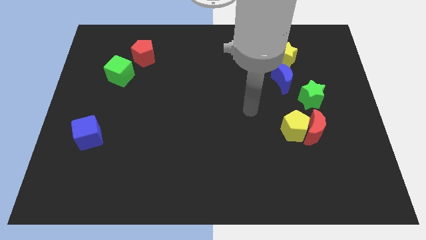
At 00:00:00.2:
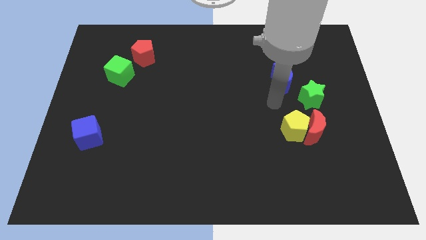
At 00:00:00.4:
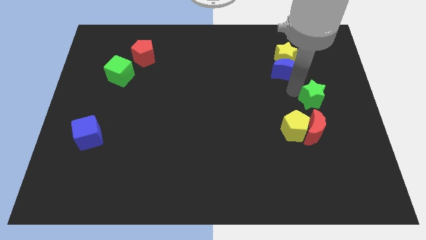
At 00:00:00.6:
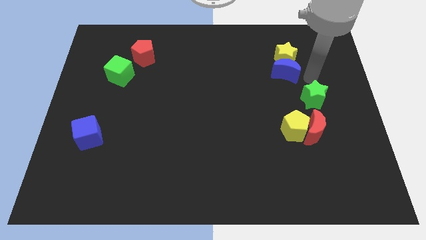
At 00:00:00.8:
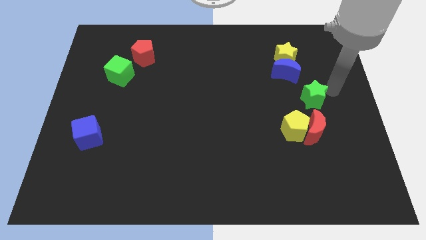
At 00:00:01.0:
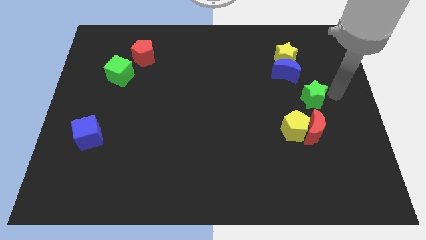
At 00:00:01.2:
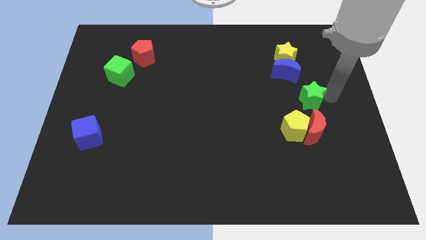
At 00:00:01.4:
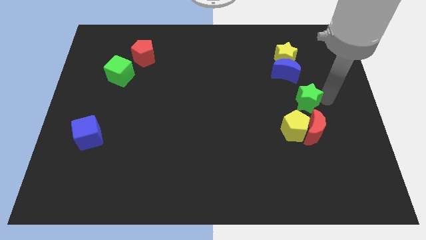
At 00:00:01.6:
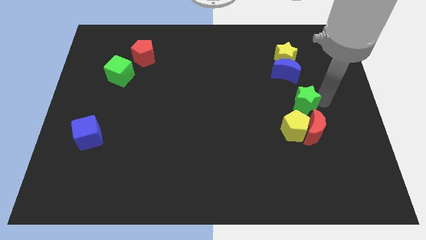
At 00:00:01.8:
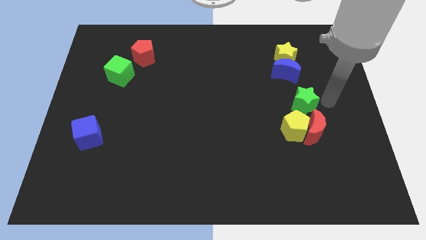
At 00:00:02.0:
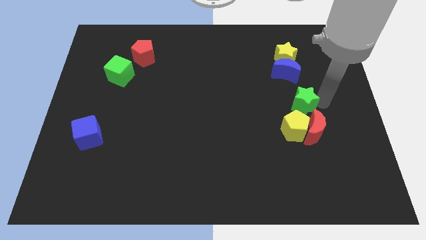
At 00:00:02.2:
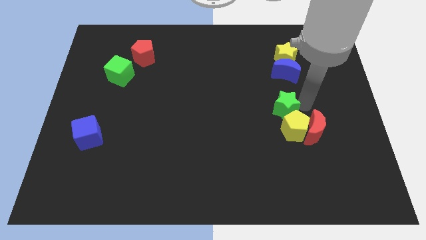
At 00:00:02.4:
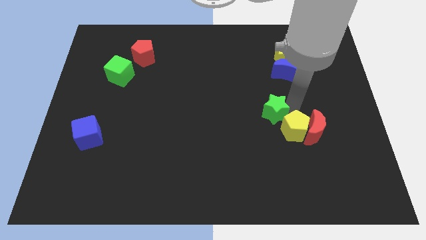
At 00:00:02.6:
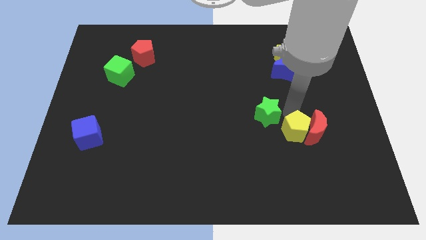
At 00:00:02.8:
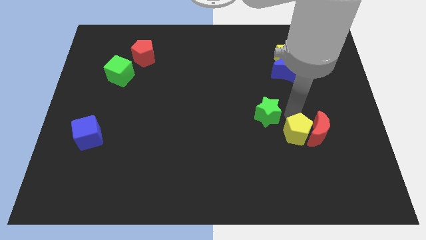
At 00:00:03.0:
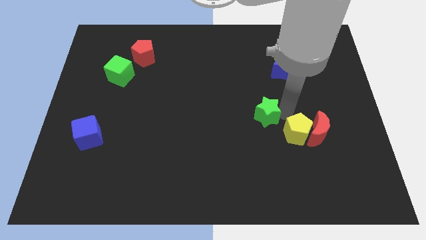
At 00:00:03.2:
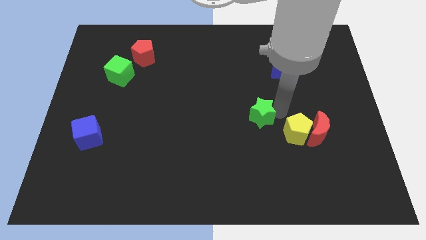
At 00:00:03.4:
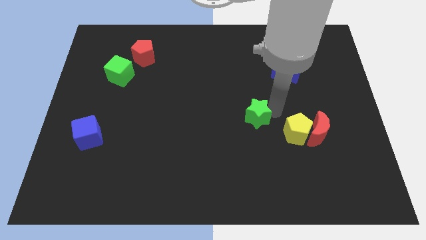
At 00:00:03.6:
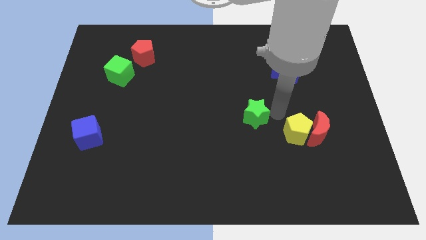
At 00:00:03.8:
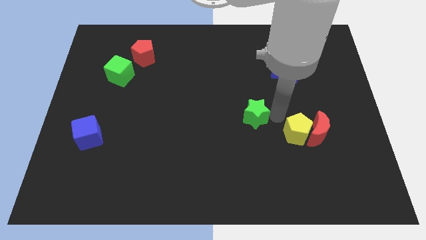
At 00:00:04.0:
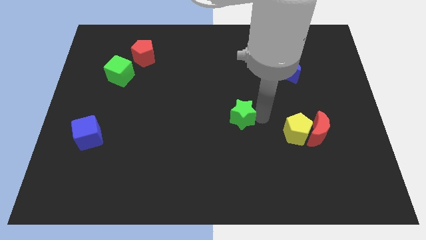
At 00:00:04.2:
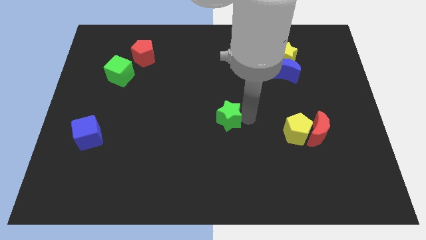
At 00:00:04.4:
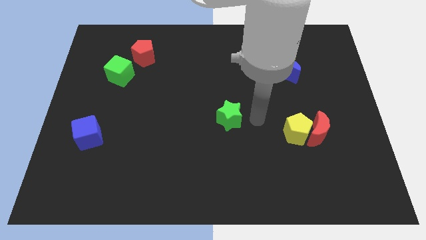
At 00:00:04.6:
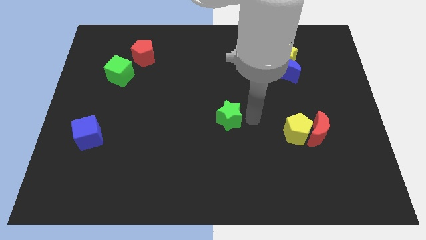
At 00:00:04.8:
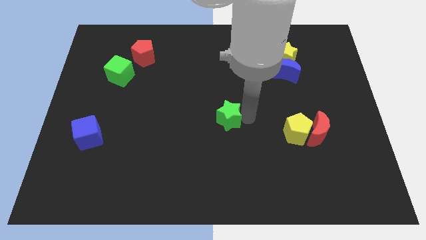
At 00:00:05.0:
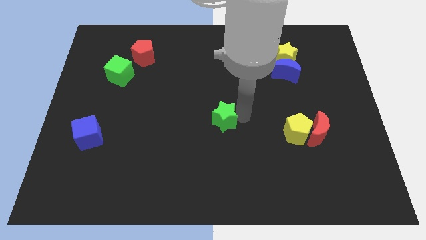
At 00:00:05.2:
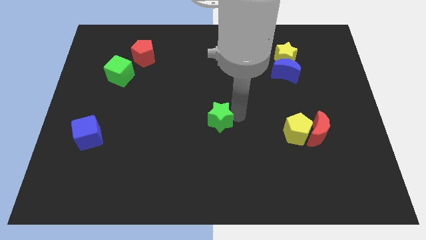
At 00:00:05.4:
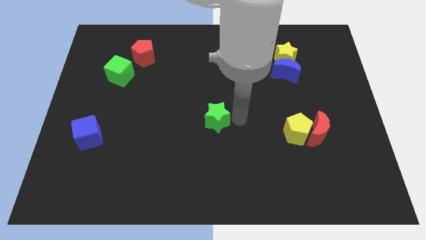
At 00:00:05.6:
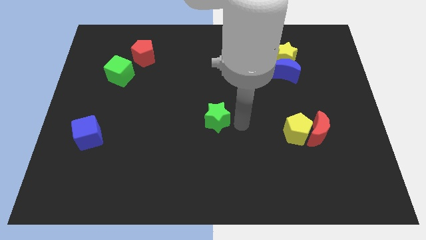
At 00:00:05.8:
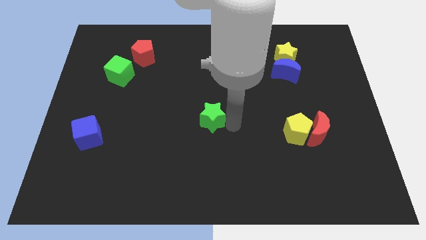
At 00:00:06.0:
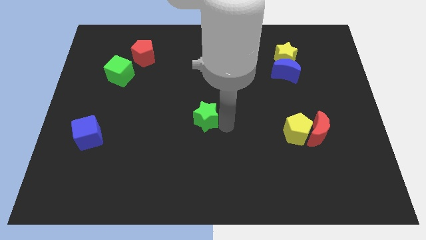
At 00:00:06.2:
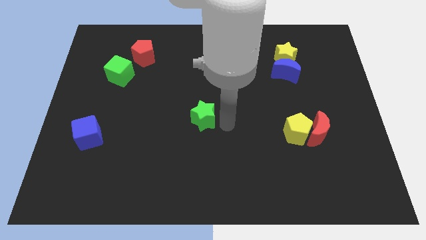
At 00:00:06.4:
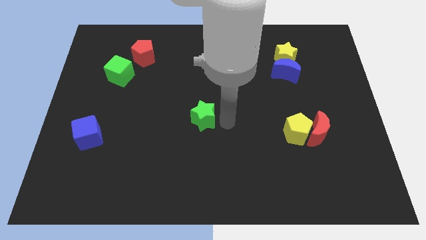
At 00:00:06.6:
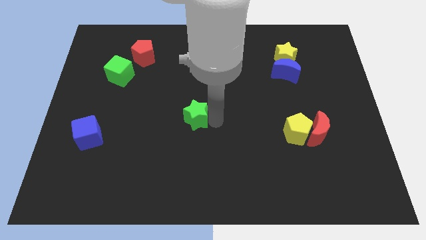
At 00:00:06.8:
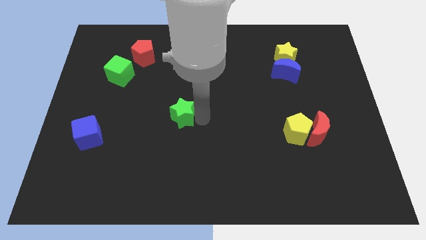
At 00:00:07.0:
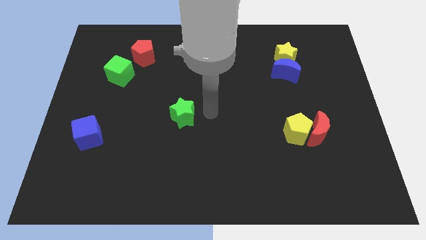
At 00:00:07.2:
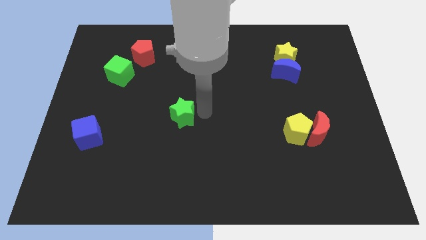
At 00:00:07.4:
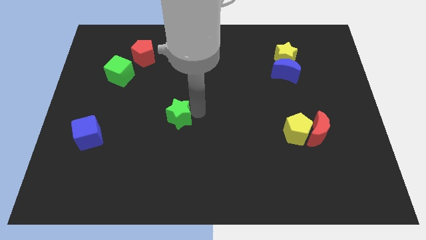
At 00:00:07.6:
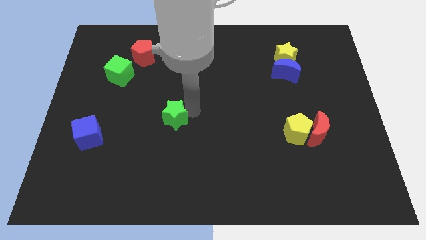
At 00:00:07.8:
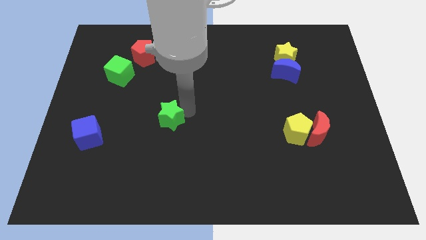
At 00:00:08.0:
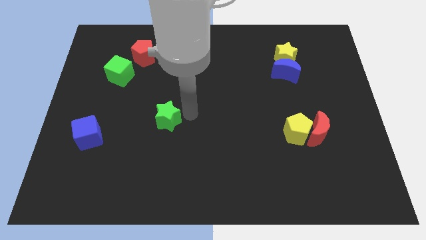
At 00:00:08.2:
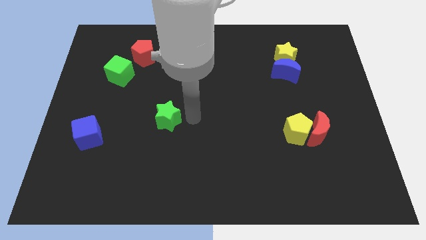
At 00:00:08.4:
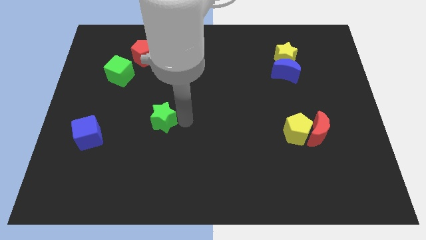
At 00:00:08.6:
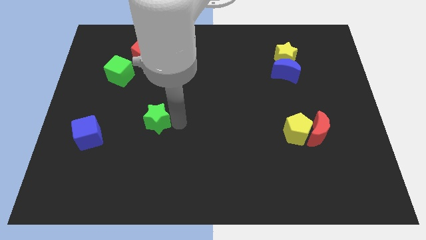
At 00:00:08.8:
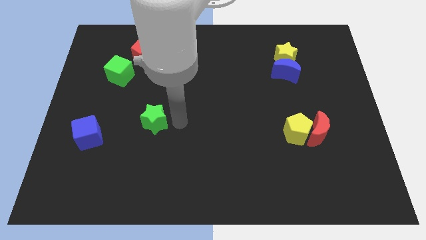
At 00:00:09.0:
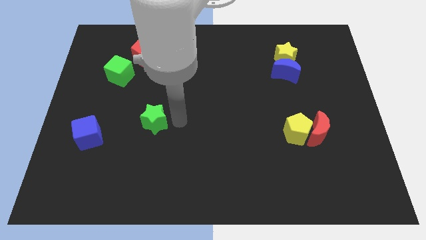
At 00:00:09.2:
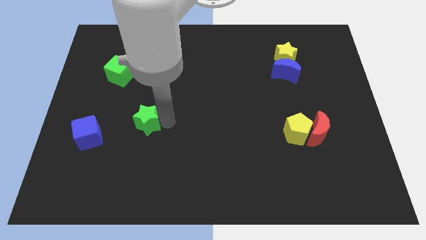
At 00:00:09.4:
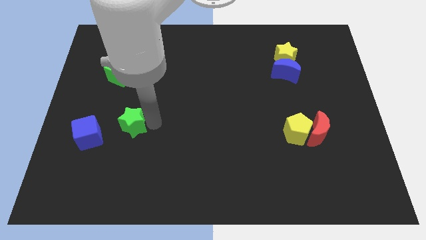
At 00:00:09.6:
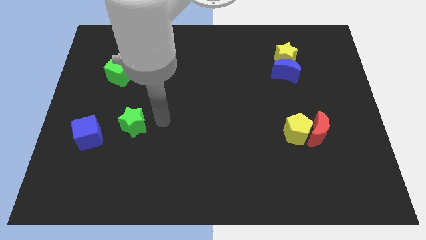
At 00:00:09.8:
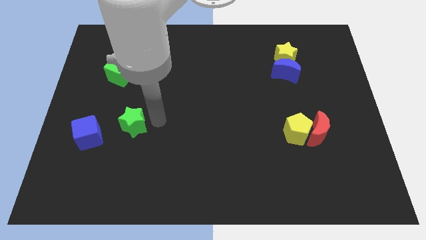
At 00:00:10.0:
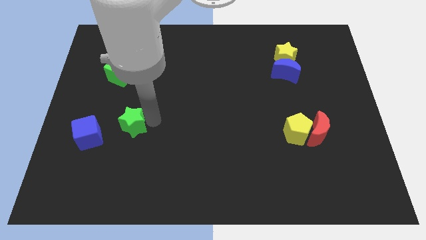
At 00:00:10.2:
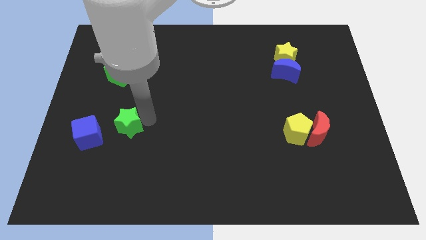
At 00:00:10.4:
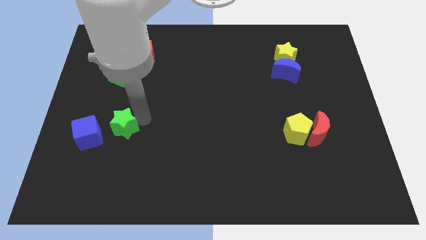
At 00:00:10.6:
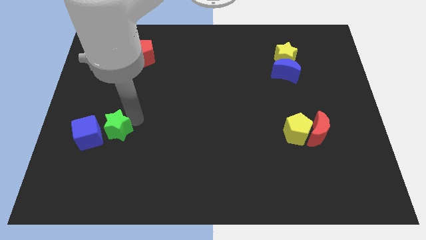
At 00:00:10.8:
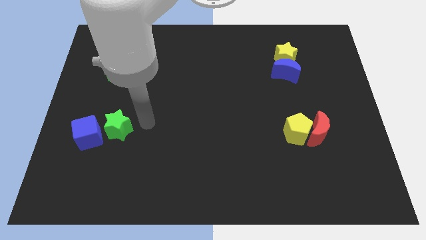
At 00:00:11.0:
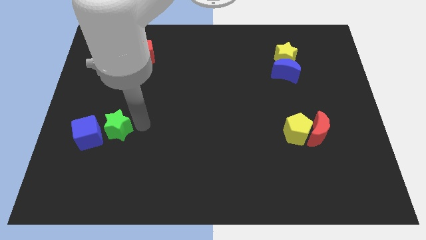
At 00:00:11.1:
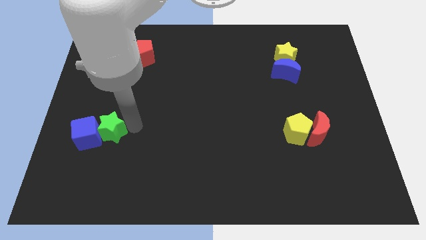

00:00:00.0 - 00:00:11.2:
slide the green star close to the blue cube

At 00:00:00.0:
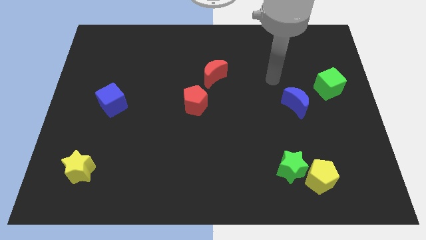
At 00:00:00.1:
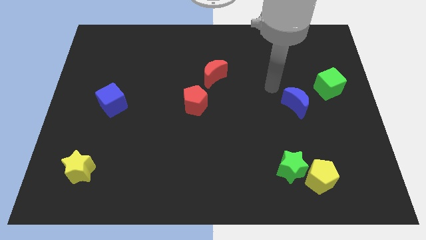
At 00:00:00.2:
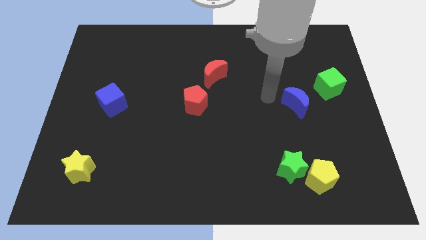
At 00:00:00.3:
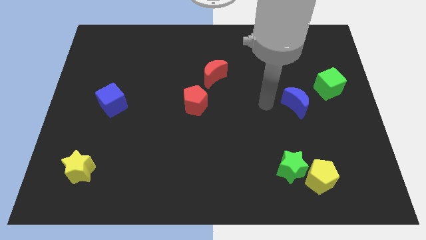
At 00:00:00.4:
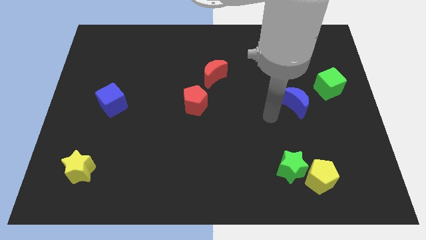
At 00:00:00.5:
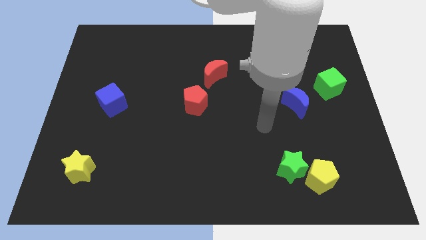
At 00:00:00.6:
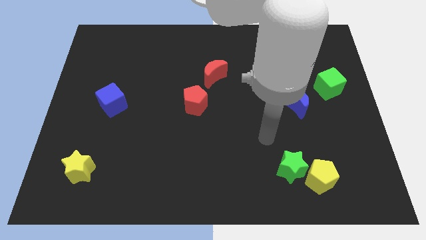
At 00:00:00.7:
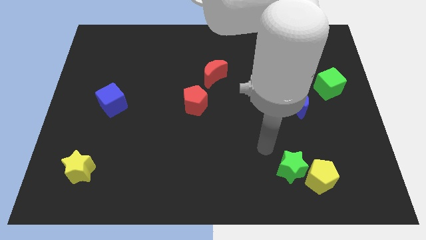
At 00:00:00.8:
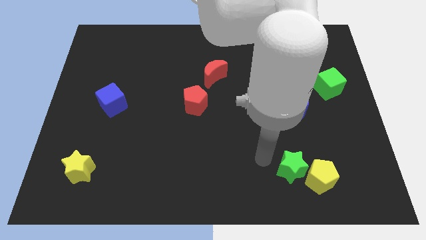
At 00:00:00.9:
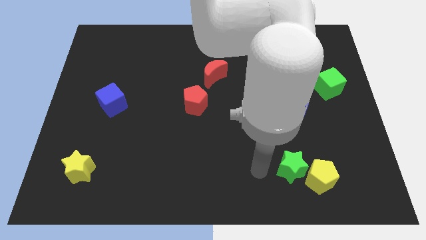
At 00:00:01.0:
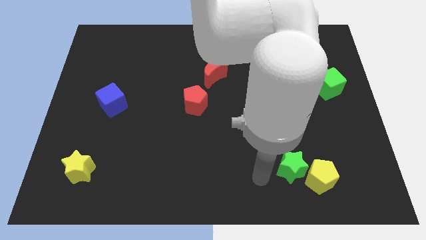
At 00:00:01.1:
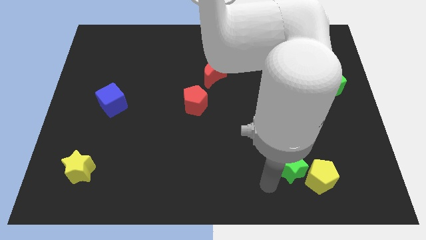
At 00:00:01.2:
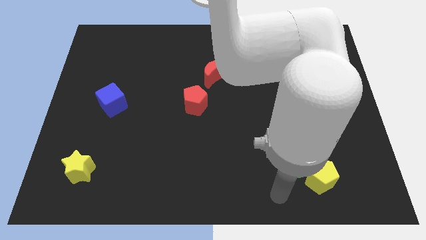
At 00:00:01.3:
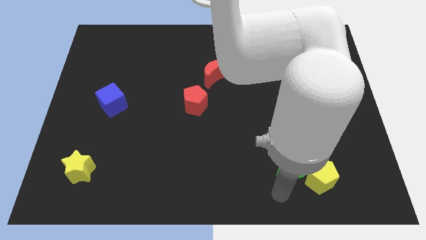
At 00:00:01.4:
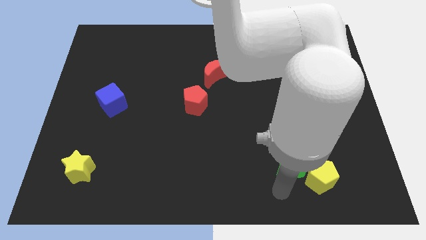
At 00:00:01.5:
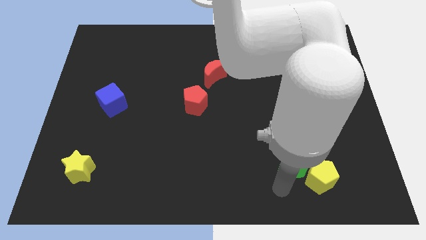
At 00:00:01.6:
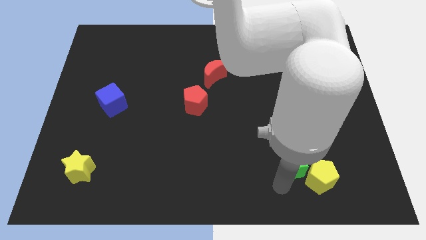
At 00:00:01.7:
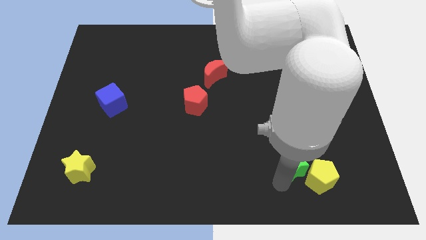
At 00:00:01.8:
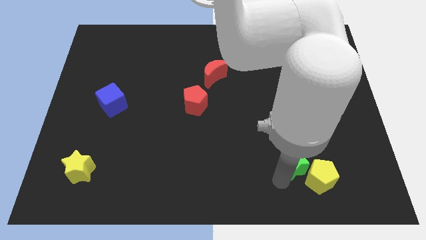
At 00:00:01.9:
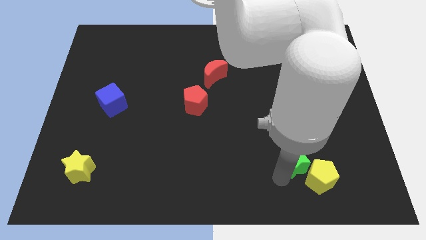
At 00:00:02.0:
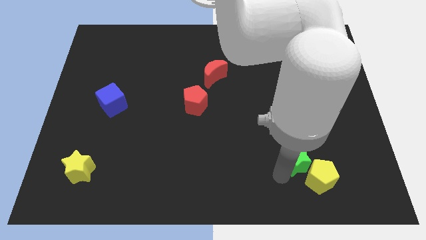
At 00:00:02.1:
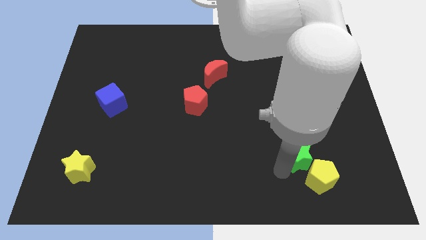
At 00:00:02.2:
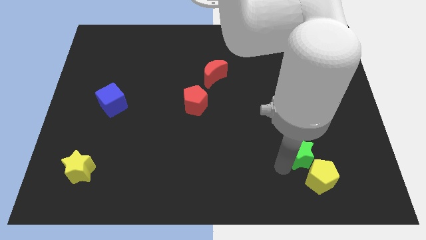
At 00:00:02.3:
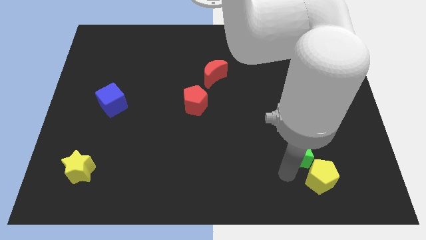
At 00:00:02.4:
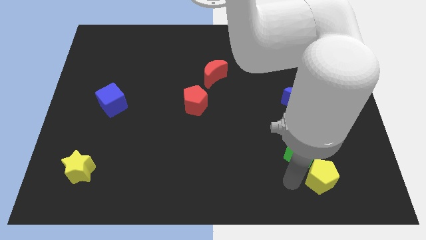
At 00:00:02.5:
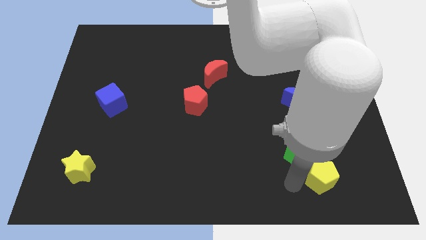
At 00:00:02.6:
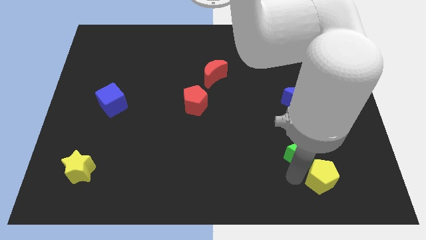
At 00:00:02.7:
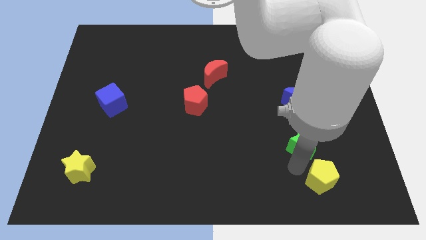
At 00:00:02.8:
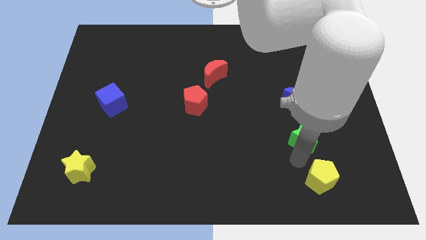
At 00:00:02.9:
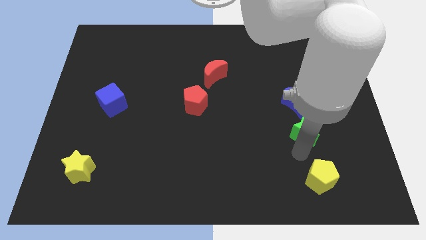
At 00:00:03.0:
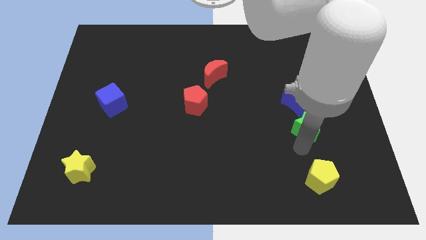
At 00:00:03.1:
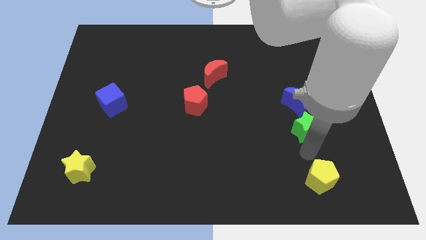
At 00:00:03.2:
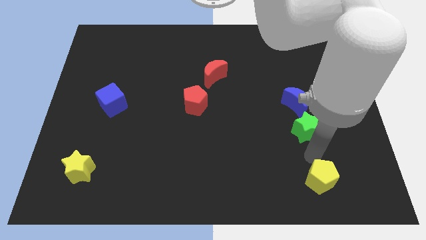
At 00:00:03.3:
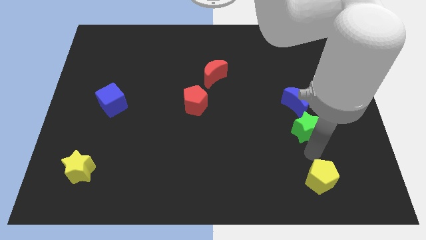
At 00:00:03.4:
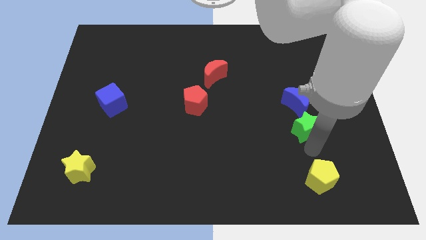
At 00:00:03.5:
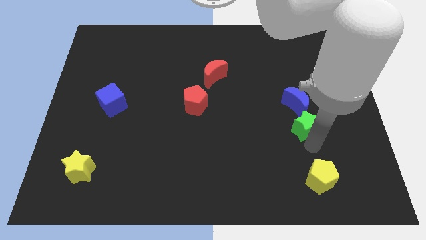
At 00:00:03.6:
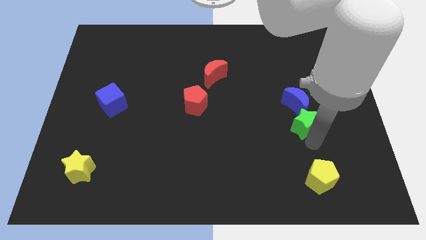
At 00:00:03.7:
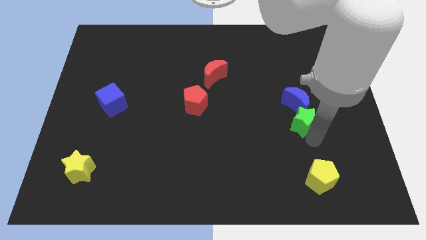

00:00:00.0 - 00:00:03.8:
push the green star towards the blue moon
